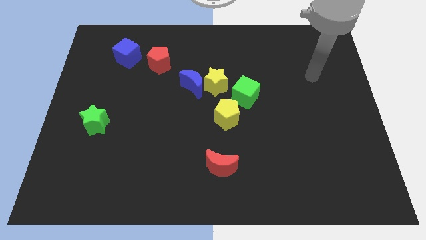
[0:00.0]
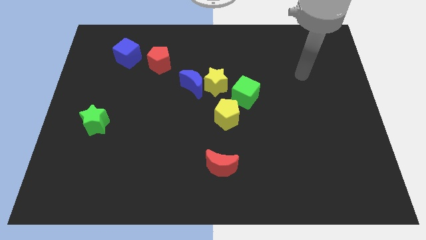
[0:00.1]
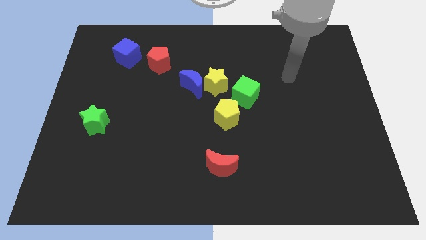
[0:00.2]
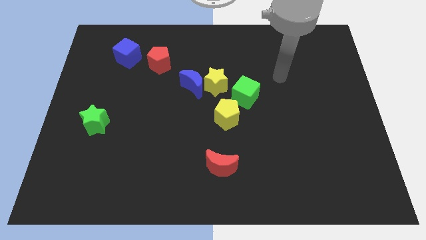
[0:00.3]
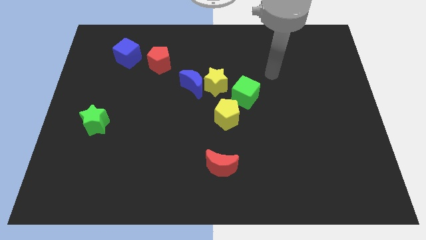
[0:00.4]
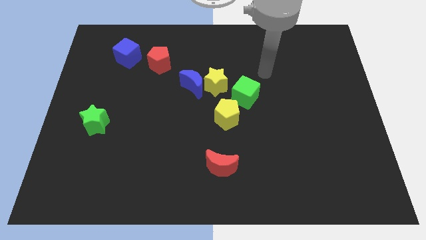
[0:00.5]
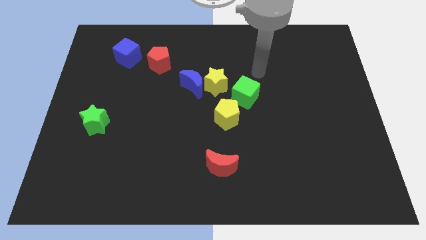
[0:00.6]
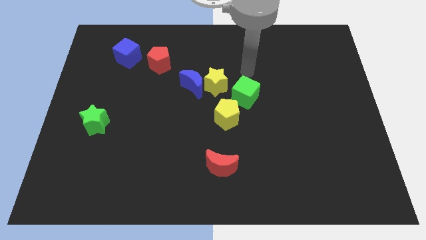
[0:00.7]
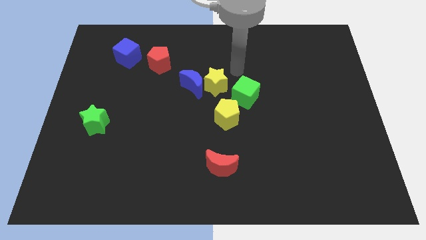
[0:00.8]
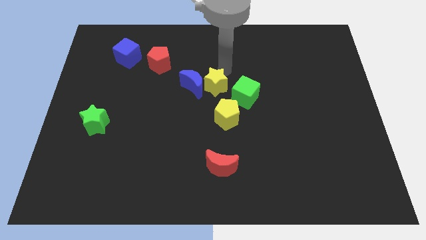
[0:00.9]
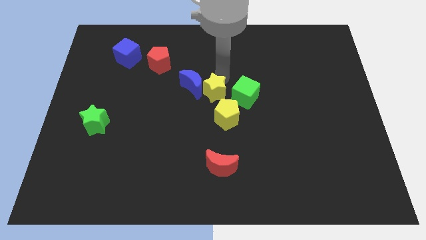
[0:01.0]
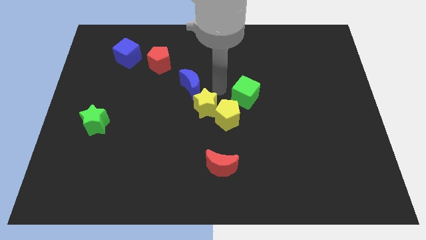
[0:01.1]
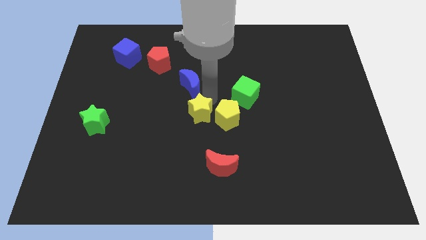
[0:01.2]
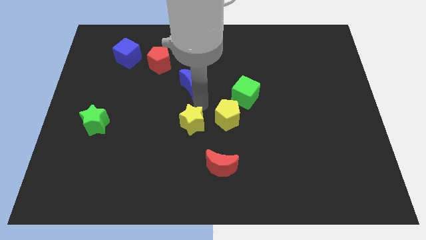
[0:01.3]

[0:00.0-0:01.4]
pull the blue moon apart from the yellow star

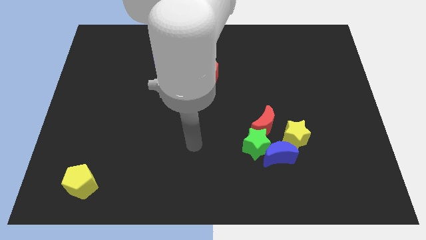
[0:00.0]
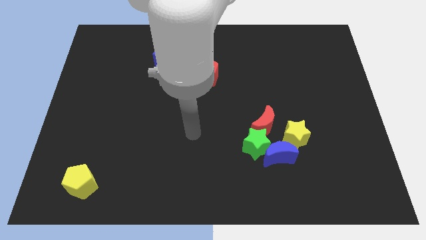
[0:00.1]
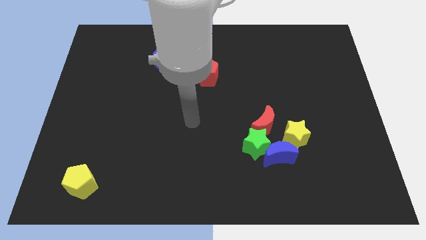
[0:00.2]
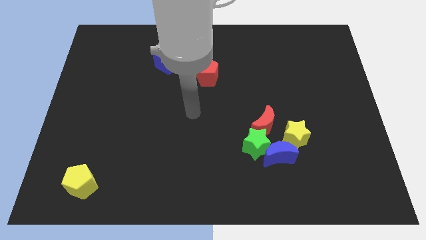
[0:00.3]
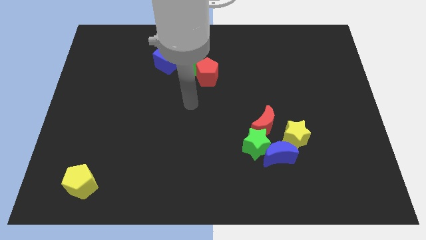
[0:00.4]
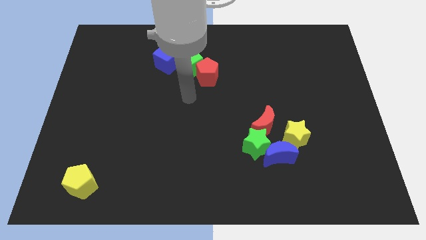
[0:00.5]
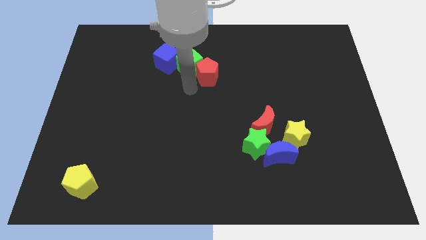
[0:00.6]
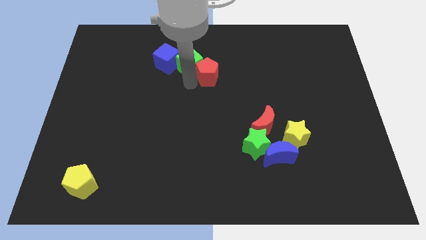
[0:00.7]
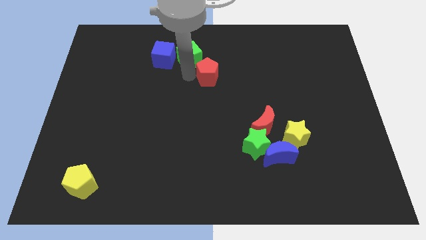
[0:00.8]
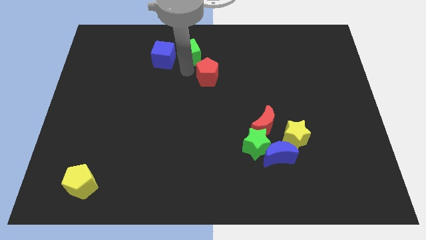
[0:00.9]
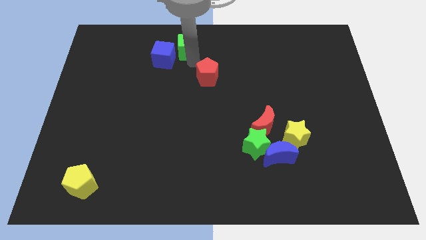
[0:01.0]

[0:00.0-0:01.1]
separate the red pentagon from the green cube

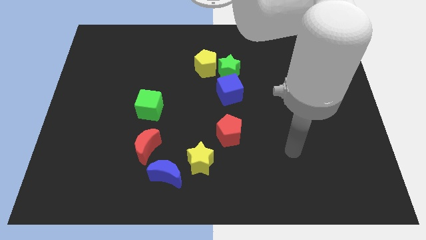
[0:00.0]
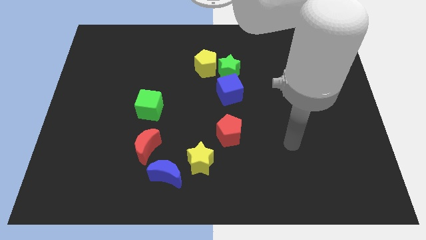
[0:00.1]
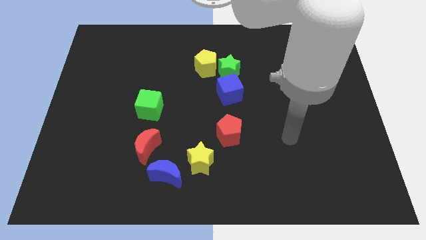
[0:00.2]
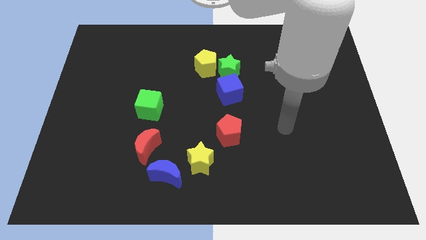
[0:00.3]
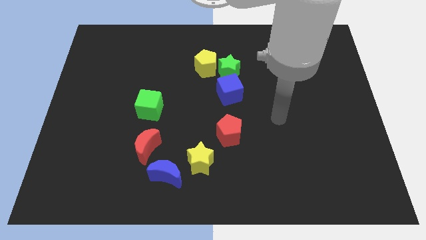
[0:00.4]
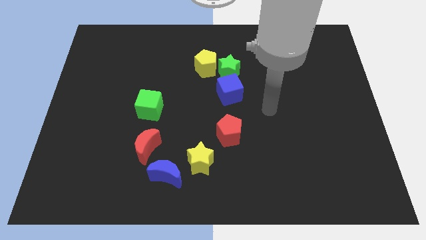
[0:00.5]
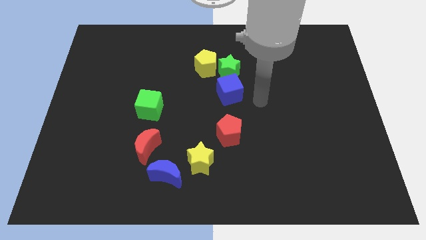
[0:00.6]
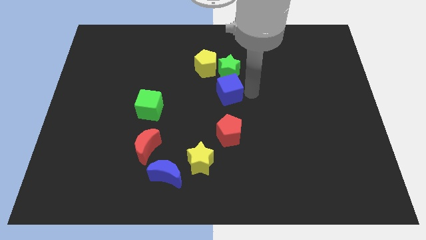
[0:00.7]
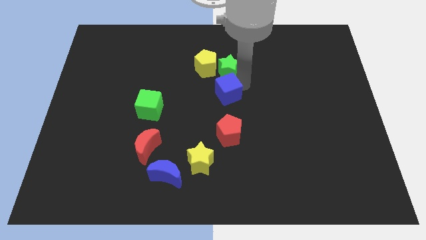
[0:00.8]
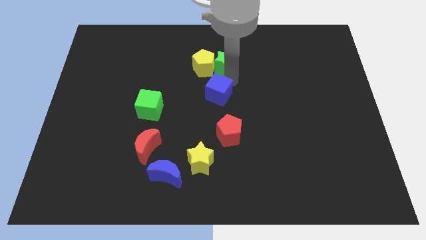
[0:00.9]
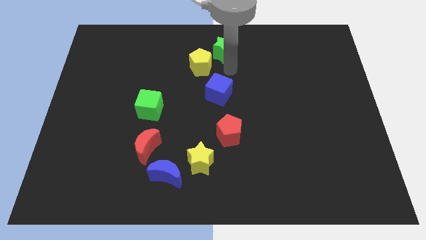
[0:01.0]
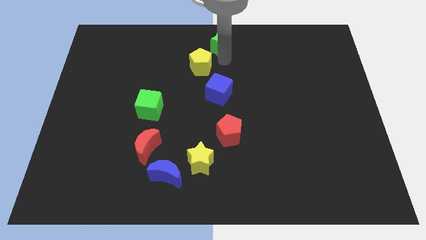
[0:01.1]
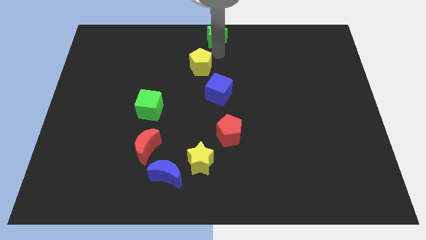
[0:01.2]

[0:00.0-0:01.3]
separate the yellow pentagon from the green star

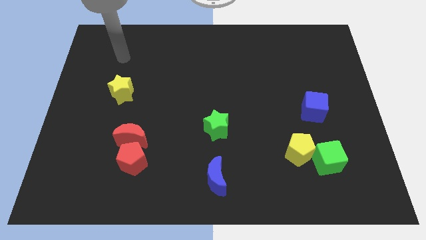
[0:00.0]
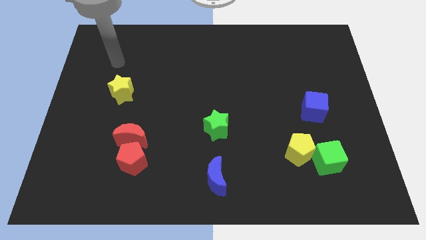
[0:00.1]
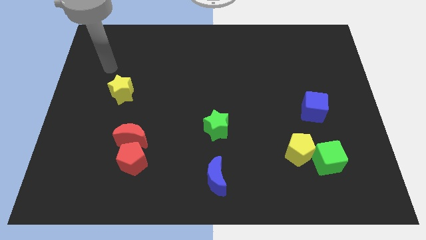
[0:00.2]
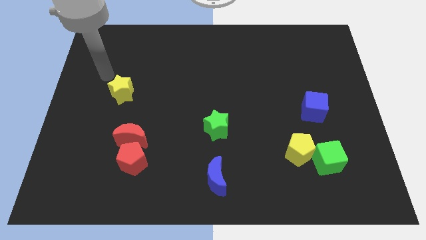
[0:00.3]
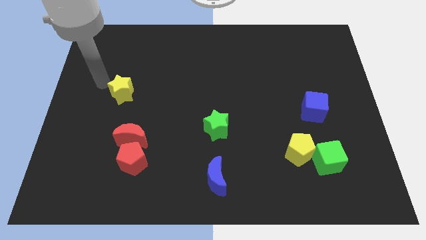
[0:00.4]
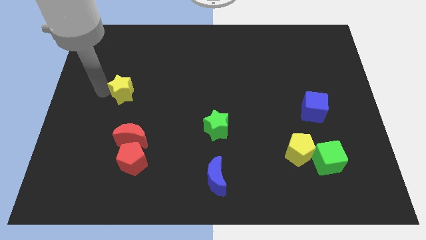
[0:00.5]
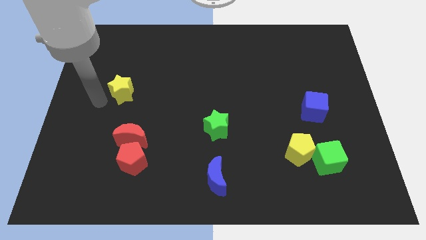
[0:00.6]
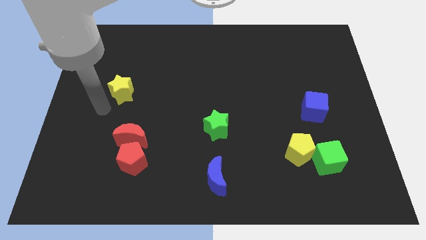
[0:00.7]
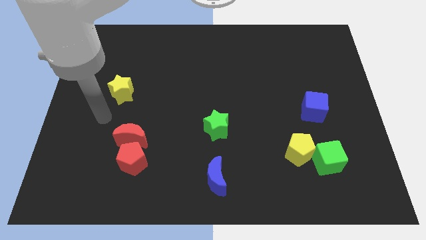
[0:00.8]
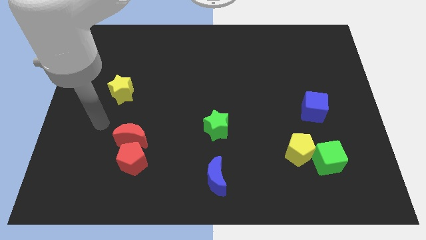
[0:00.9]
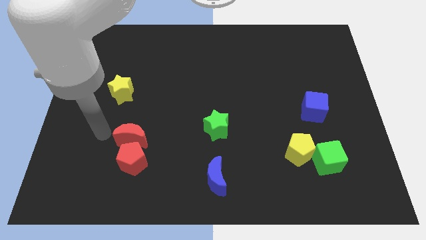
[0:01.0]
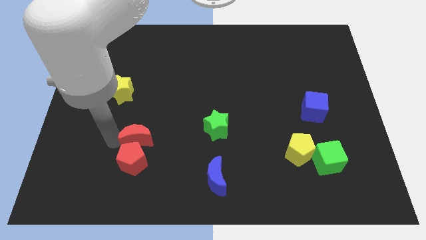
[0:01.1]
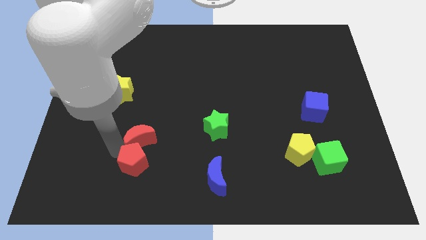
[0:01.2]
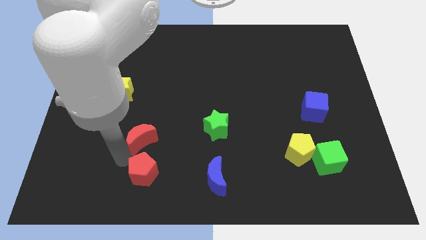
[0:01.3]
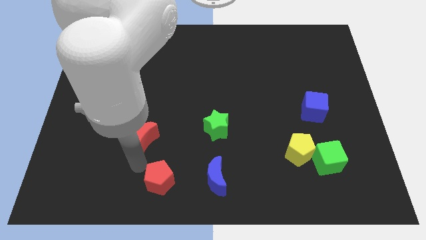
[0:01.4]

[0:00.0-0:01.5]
pull the red moon apart from the red pentagon

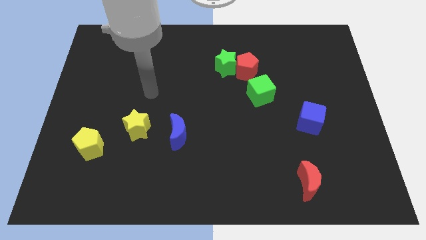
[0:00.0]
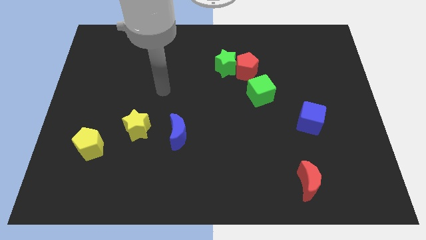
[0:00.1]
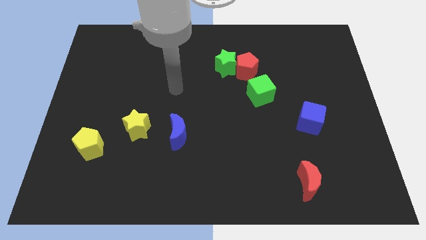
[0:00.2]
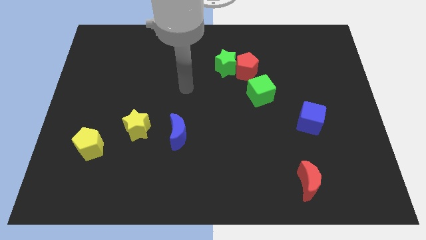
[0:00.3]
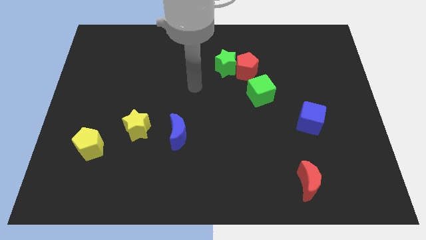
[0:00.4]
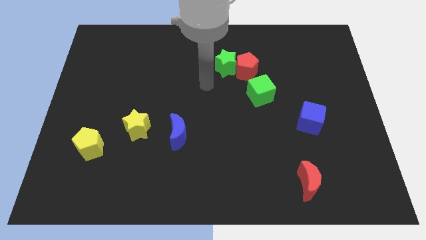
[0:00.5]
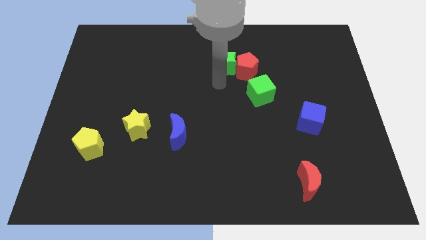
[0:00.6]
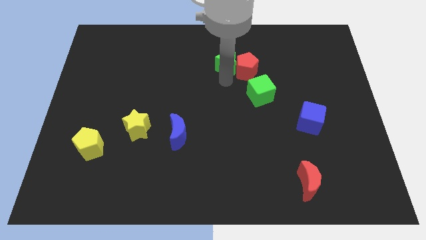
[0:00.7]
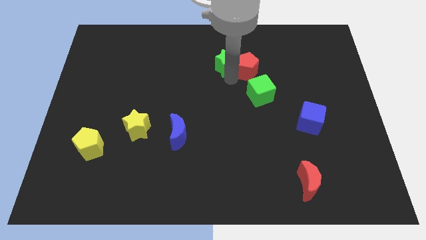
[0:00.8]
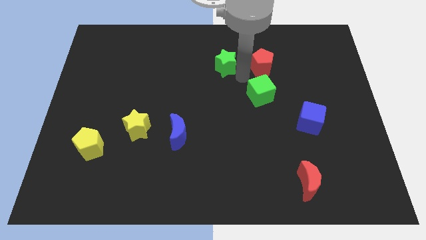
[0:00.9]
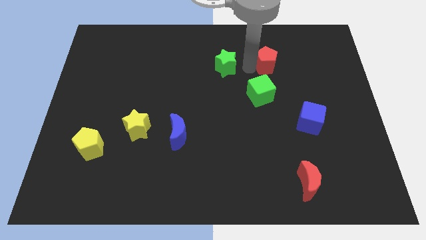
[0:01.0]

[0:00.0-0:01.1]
pull the green star apart from the red pentagon

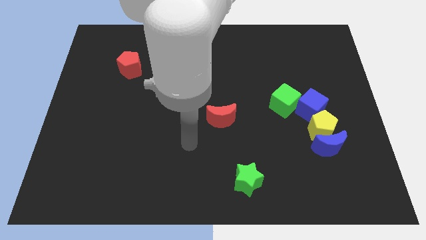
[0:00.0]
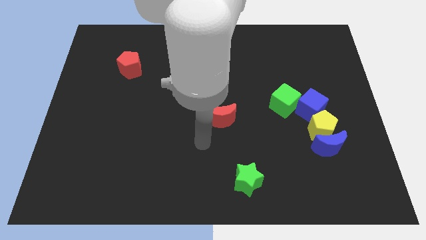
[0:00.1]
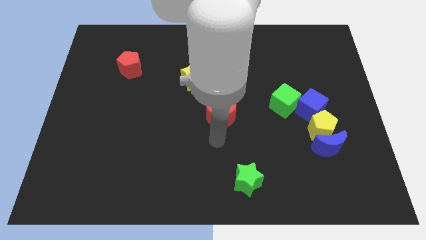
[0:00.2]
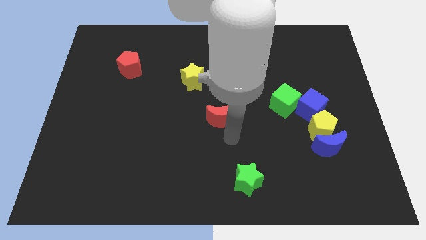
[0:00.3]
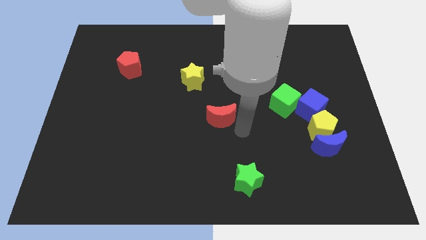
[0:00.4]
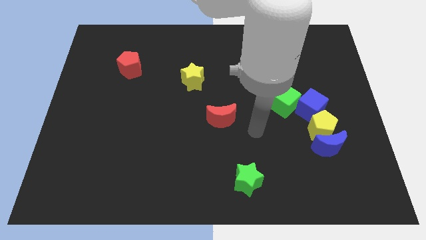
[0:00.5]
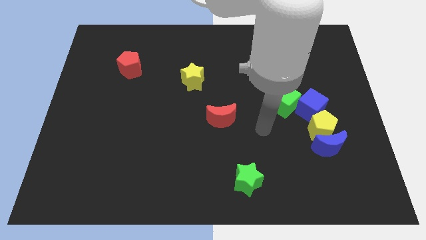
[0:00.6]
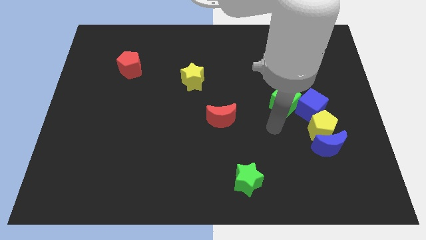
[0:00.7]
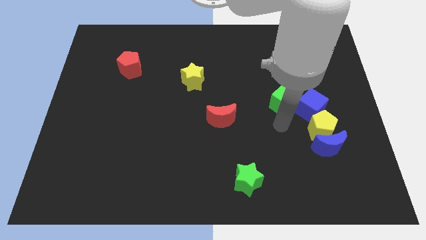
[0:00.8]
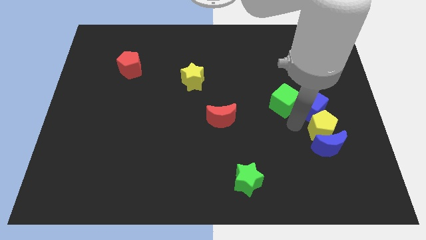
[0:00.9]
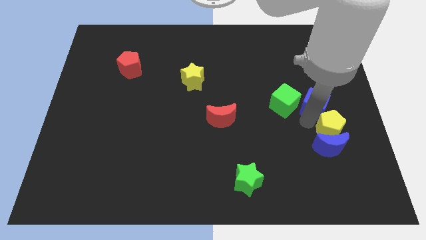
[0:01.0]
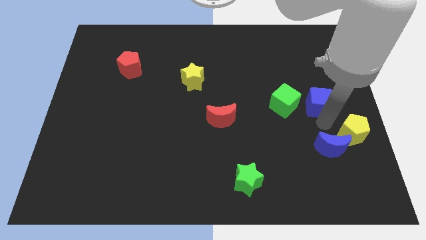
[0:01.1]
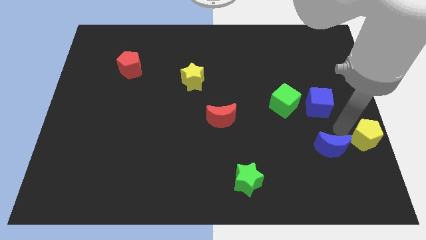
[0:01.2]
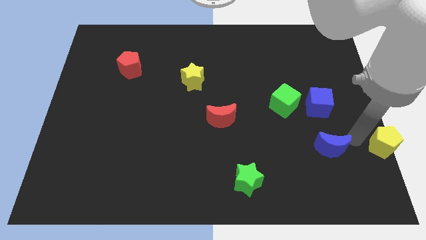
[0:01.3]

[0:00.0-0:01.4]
pull the blue moon apart from the yellow pentagon

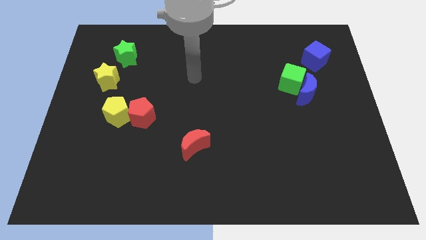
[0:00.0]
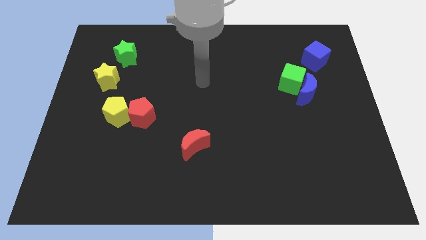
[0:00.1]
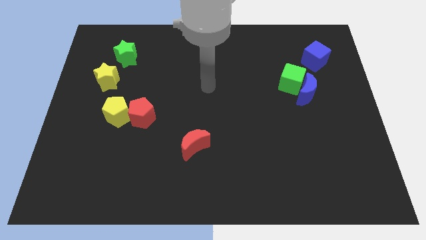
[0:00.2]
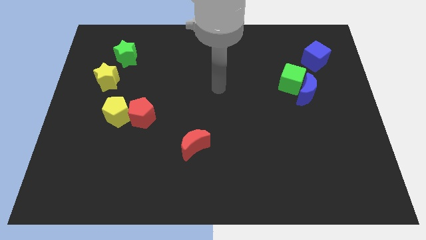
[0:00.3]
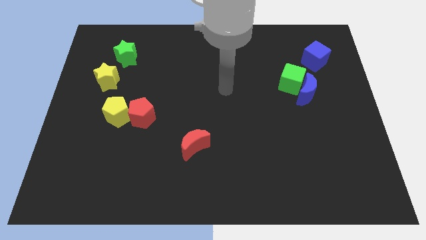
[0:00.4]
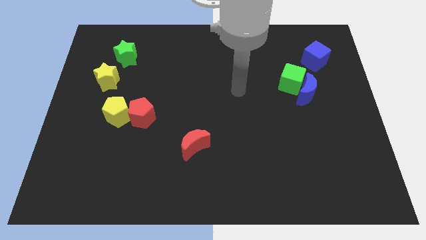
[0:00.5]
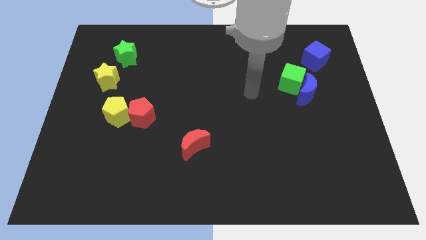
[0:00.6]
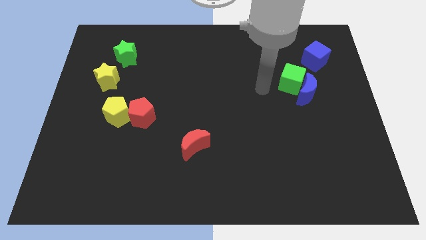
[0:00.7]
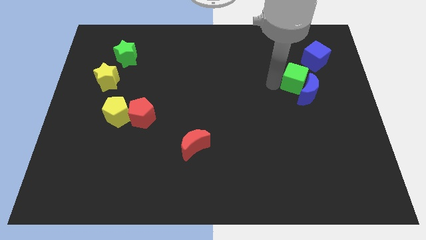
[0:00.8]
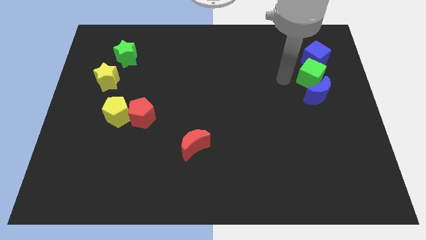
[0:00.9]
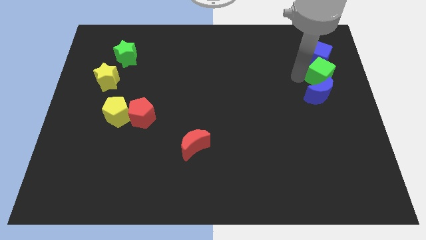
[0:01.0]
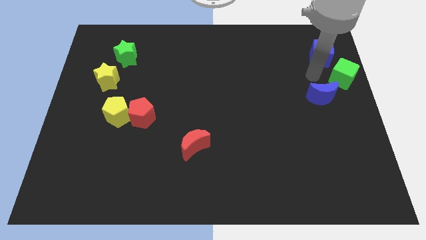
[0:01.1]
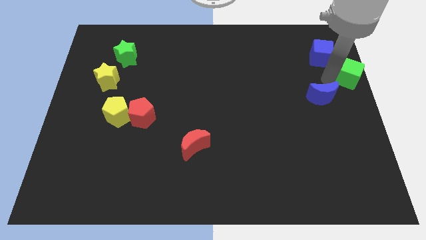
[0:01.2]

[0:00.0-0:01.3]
pull the blue moon apart from the green cube

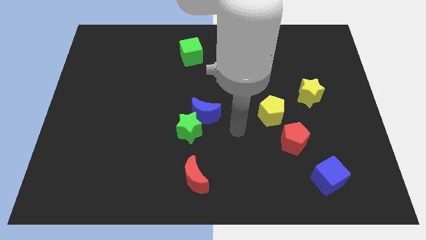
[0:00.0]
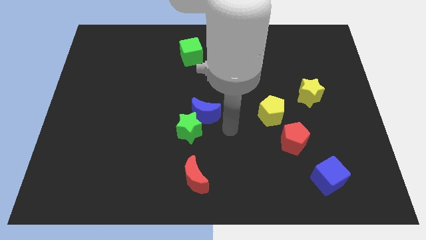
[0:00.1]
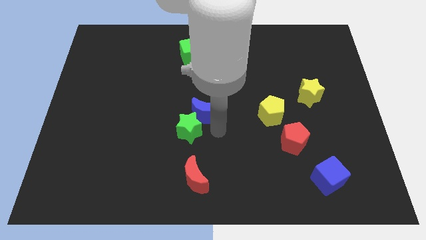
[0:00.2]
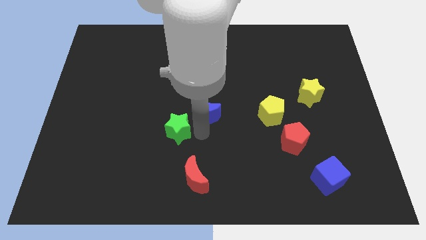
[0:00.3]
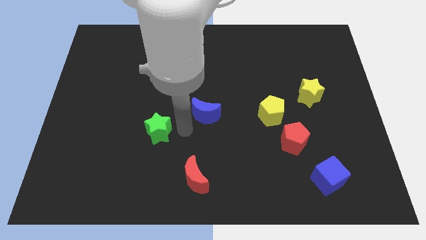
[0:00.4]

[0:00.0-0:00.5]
move the blue moon away from the green star
